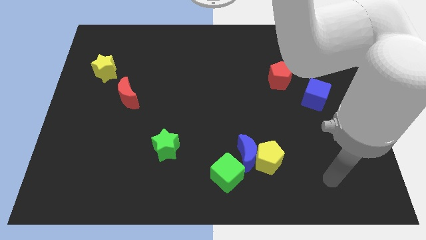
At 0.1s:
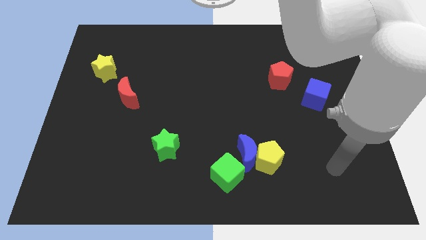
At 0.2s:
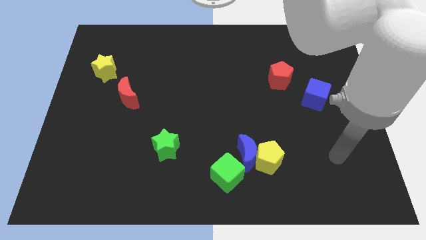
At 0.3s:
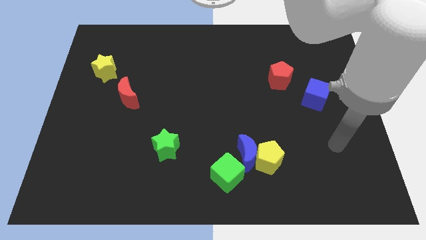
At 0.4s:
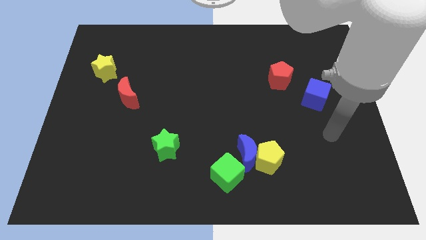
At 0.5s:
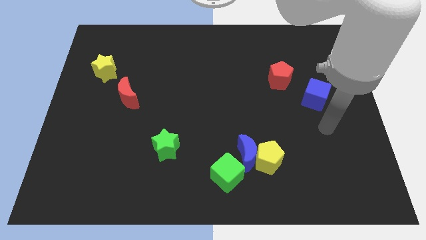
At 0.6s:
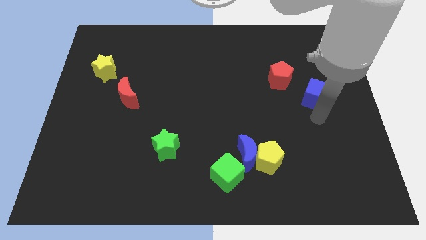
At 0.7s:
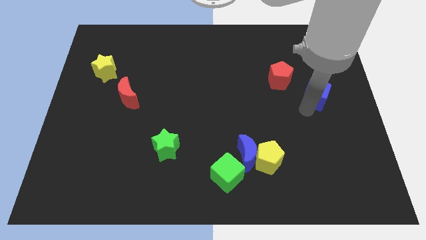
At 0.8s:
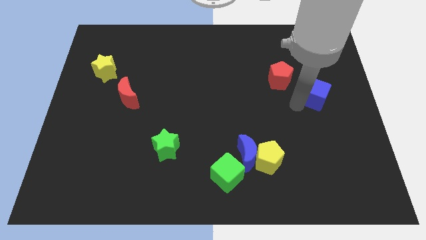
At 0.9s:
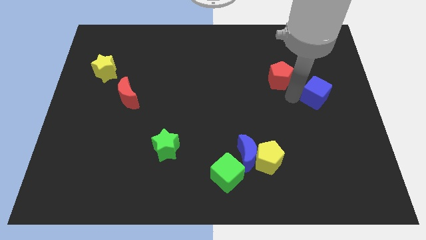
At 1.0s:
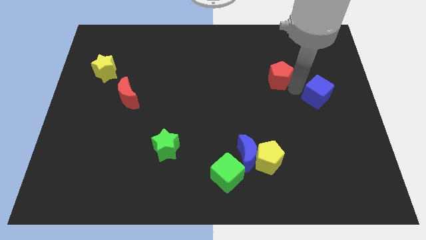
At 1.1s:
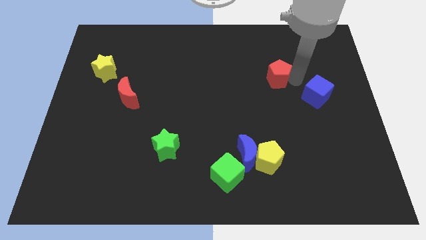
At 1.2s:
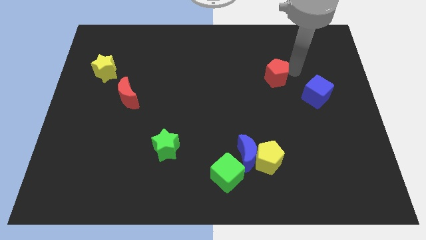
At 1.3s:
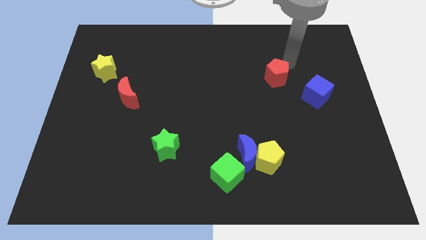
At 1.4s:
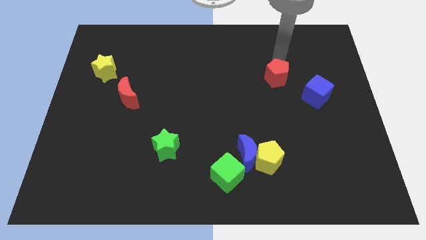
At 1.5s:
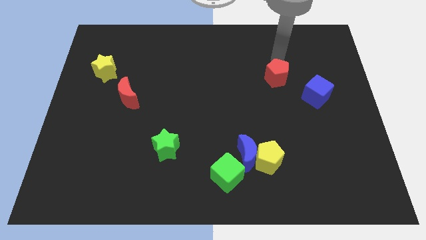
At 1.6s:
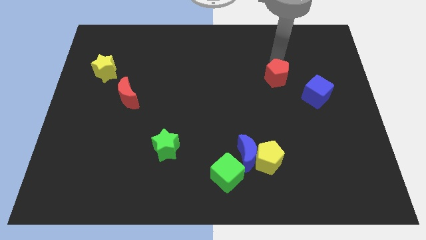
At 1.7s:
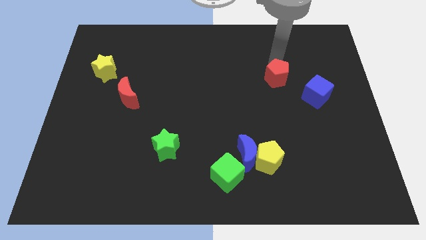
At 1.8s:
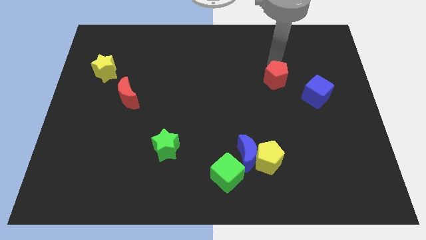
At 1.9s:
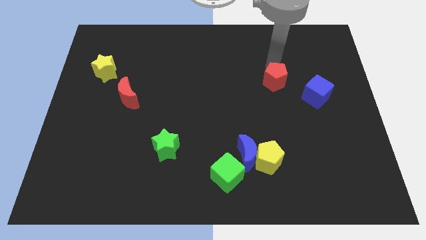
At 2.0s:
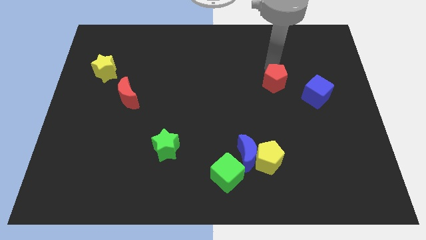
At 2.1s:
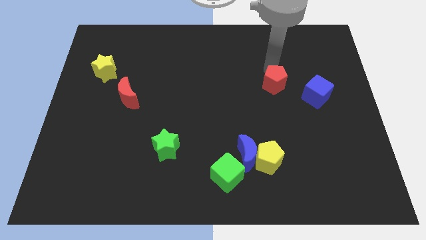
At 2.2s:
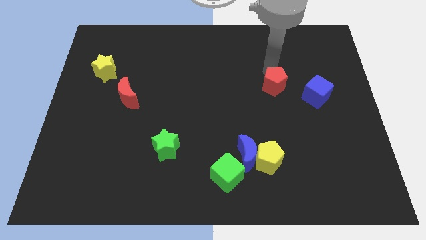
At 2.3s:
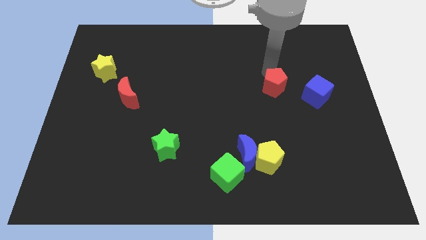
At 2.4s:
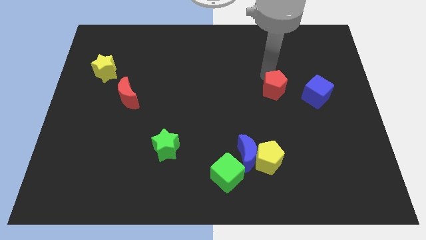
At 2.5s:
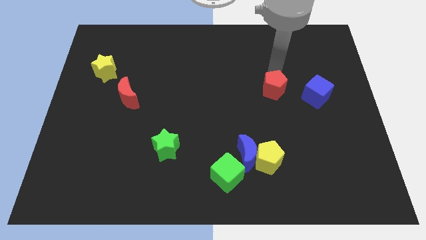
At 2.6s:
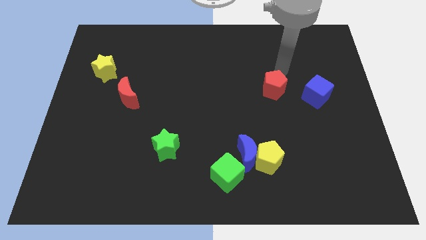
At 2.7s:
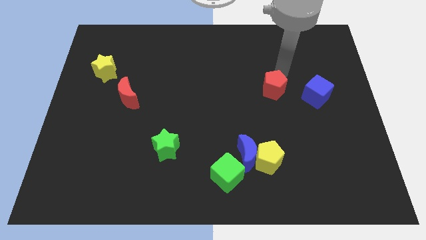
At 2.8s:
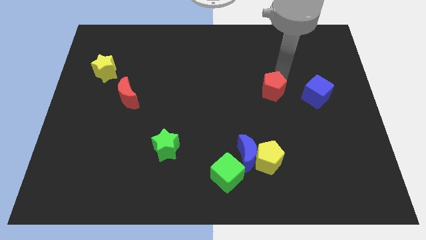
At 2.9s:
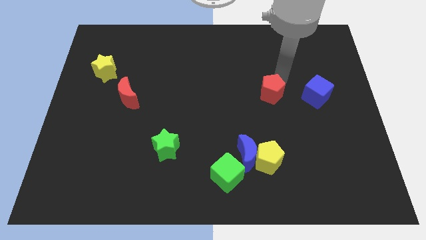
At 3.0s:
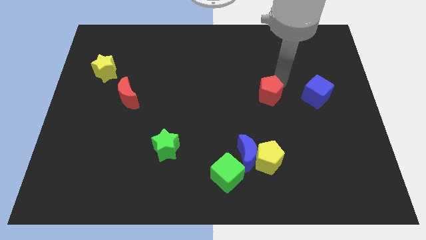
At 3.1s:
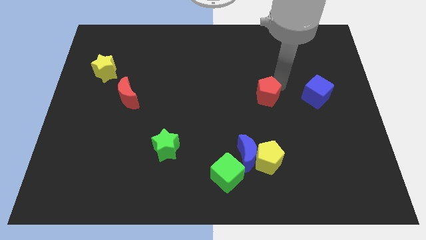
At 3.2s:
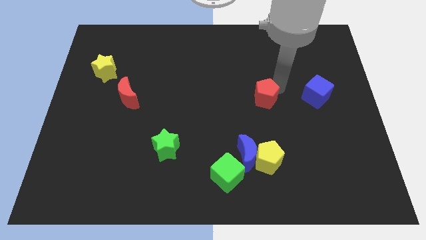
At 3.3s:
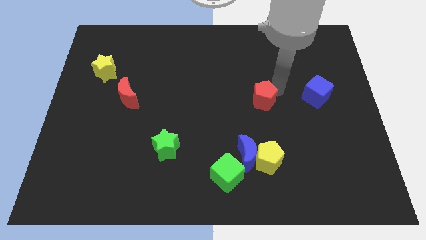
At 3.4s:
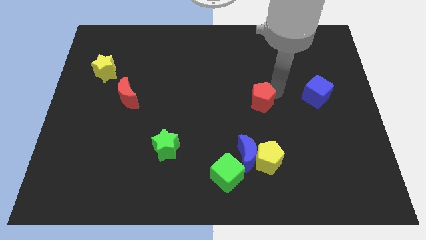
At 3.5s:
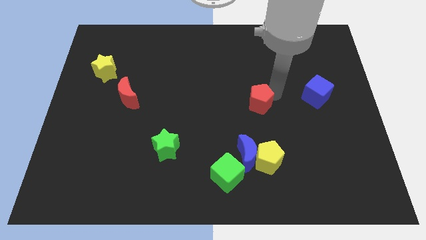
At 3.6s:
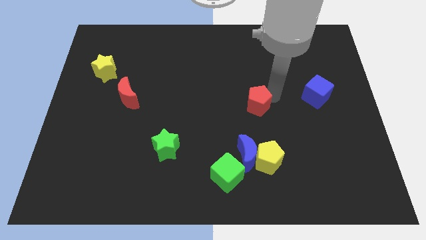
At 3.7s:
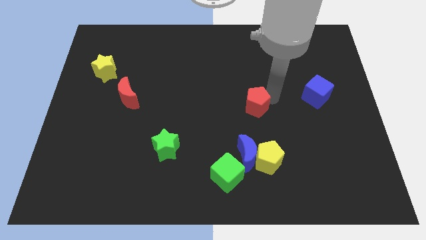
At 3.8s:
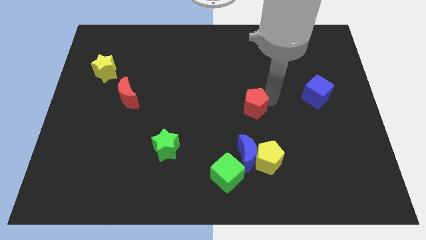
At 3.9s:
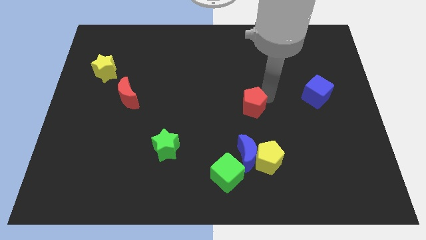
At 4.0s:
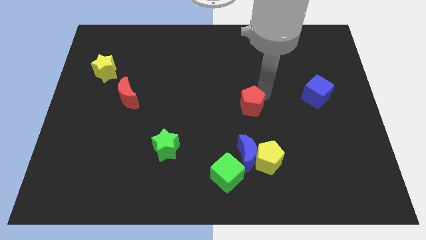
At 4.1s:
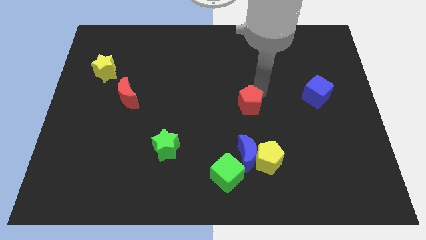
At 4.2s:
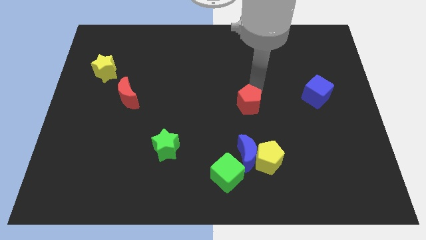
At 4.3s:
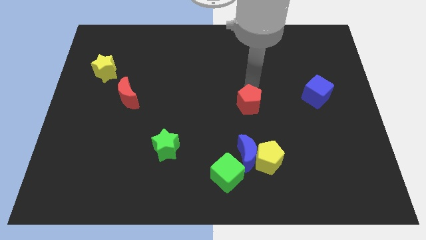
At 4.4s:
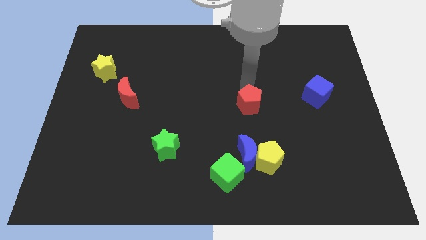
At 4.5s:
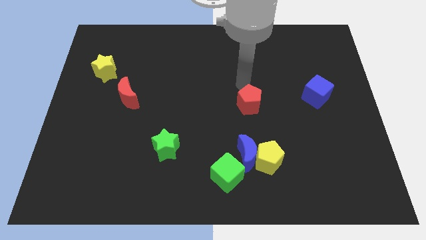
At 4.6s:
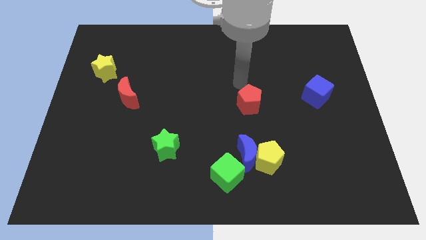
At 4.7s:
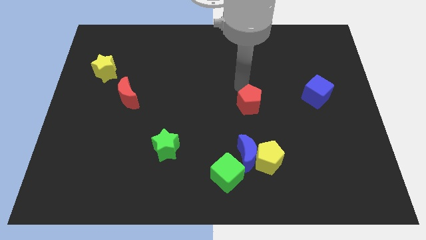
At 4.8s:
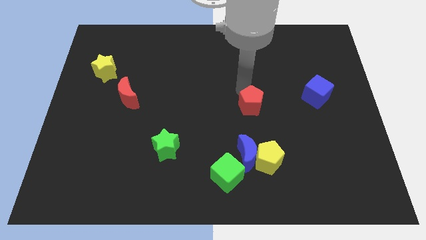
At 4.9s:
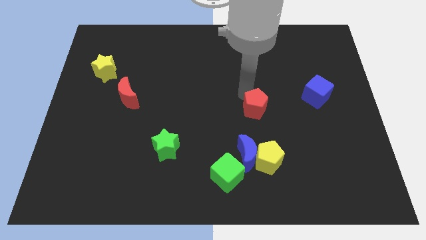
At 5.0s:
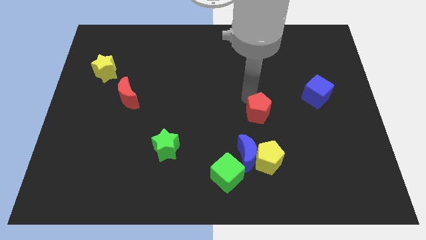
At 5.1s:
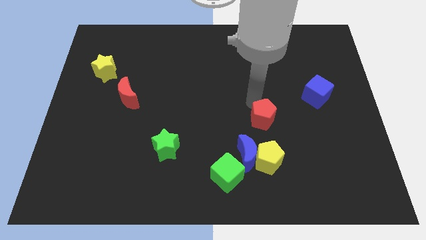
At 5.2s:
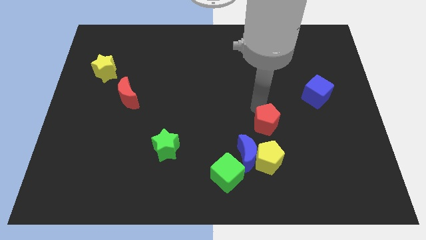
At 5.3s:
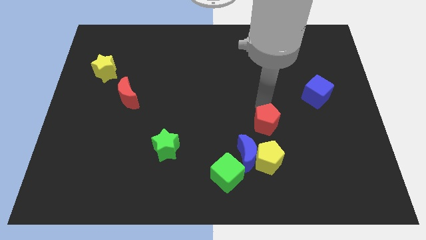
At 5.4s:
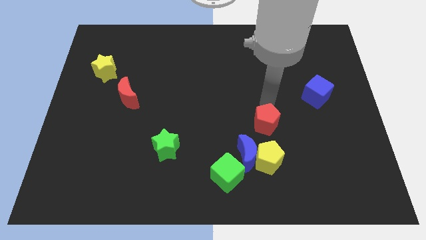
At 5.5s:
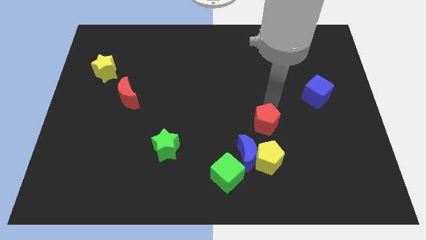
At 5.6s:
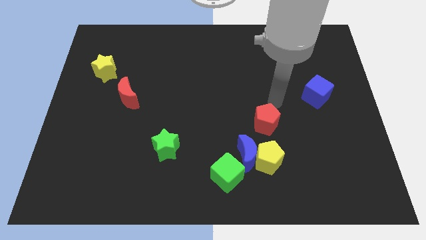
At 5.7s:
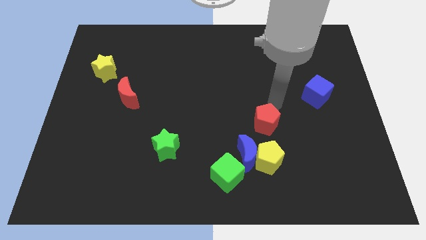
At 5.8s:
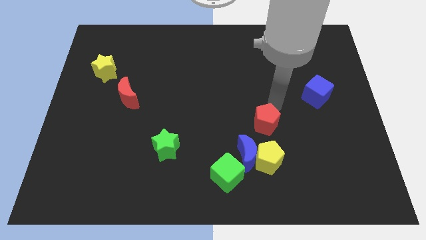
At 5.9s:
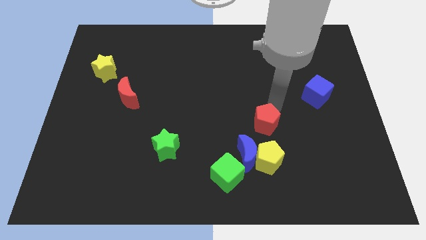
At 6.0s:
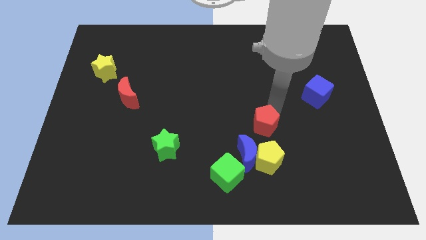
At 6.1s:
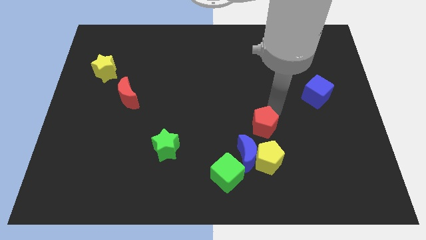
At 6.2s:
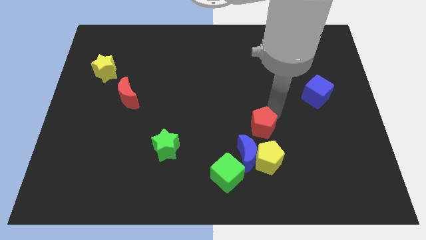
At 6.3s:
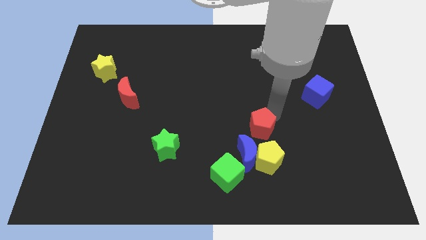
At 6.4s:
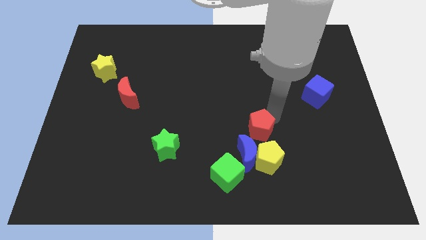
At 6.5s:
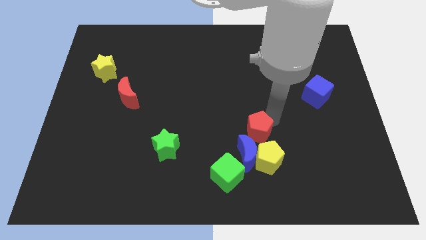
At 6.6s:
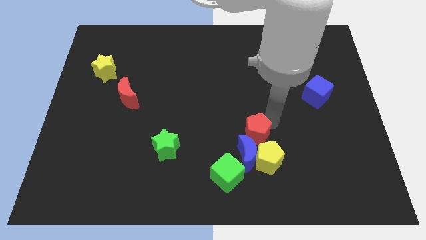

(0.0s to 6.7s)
push the red pentagon close to the blue moon
